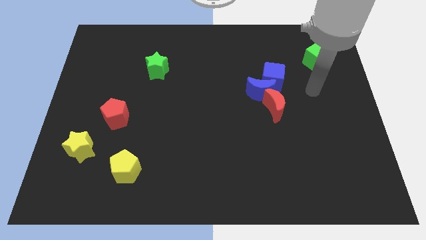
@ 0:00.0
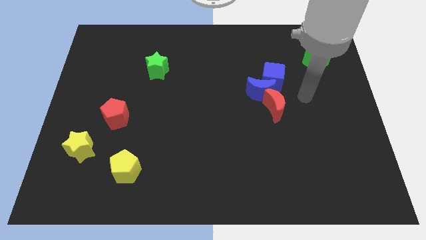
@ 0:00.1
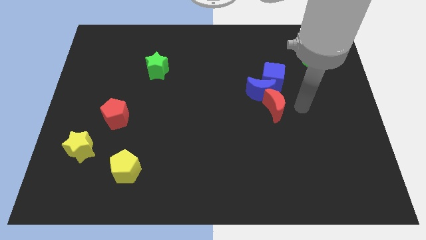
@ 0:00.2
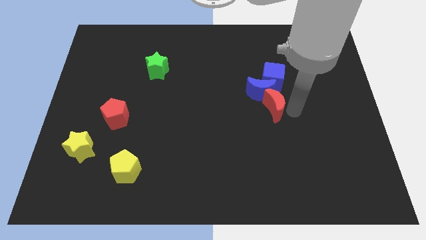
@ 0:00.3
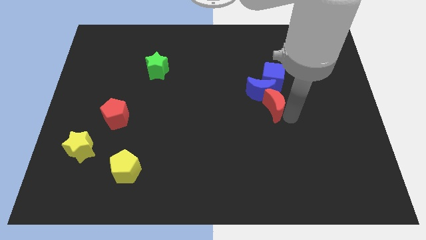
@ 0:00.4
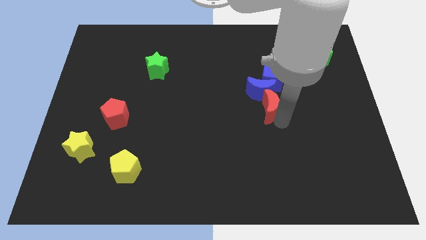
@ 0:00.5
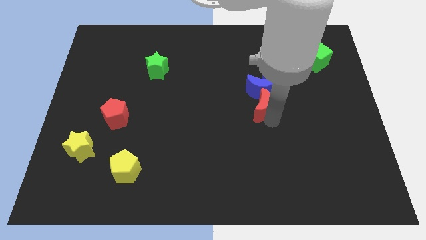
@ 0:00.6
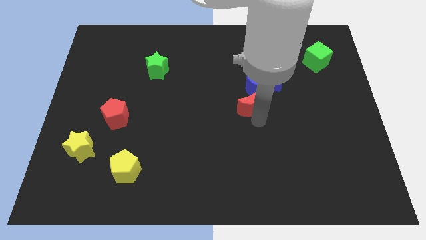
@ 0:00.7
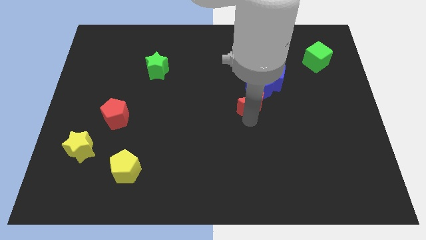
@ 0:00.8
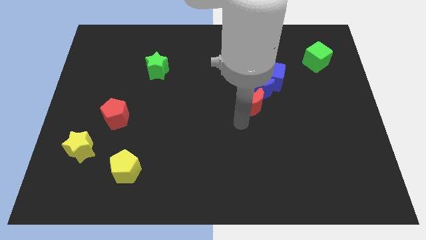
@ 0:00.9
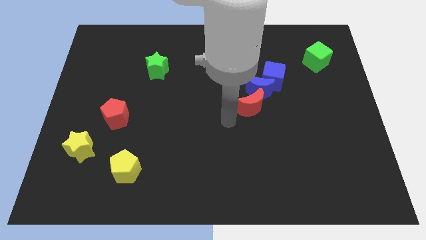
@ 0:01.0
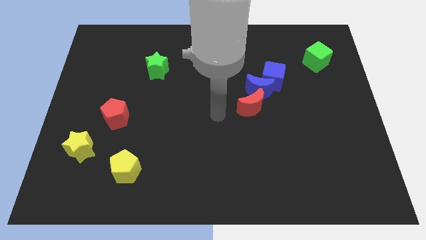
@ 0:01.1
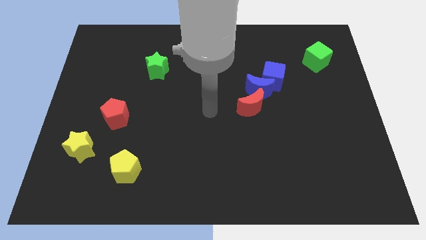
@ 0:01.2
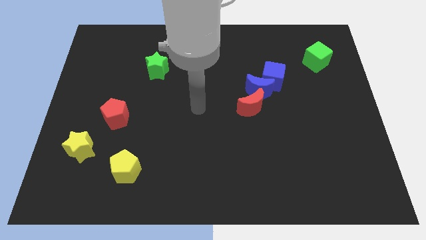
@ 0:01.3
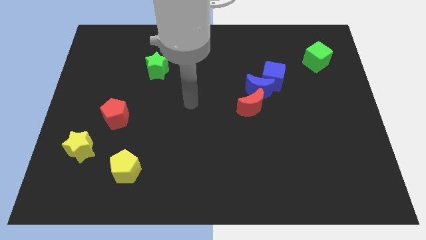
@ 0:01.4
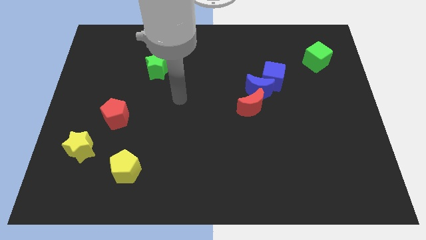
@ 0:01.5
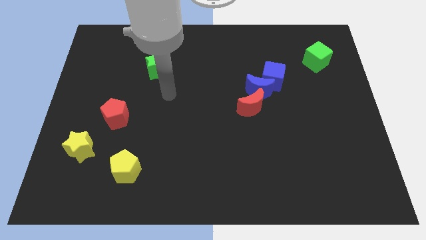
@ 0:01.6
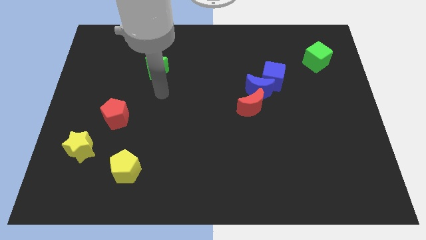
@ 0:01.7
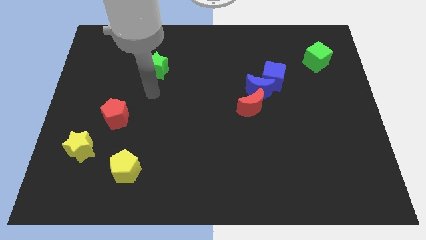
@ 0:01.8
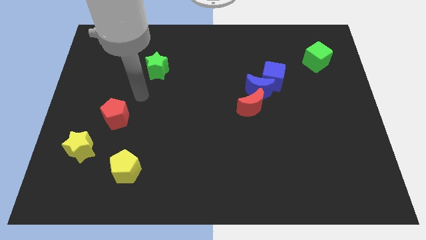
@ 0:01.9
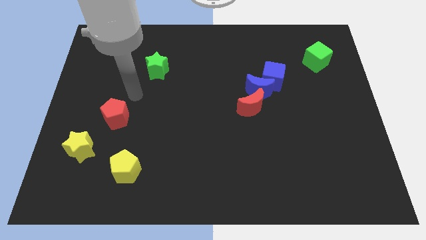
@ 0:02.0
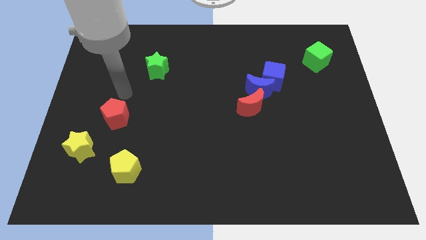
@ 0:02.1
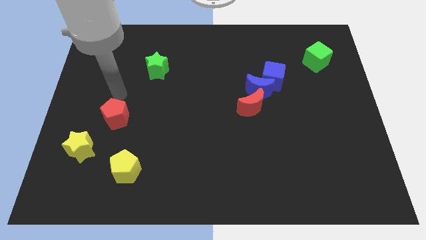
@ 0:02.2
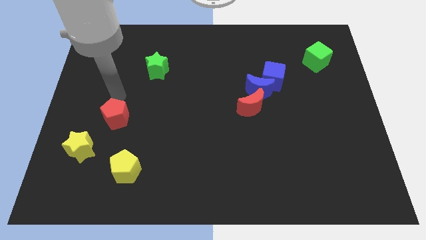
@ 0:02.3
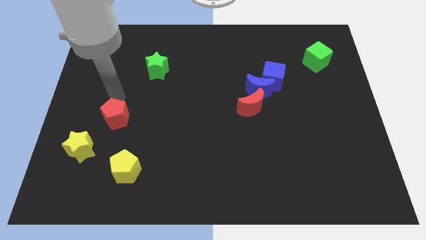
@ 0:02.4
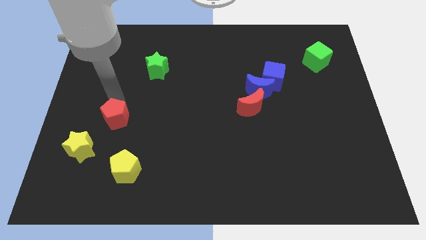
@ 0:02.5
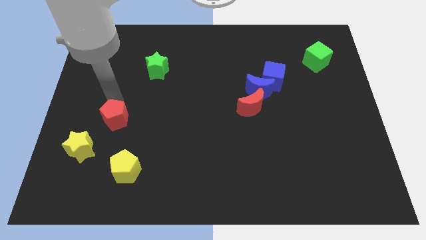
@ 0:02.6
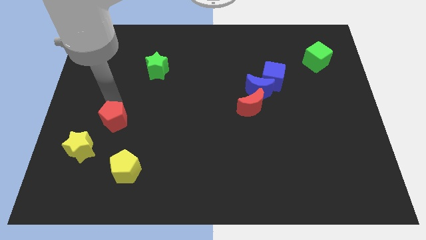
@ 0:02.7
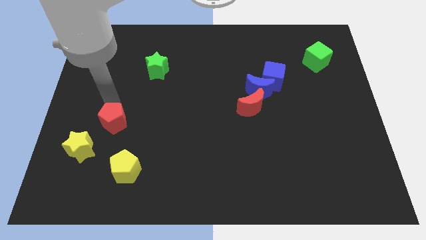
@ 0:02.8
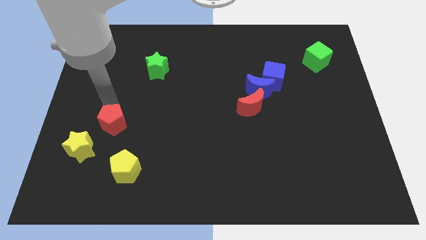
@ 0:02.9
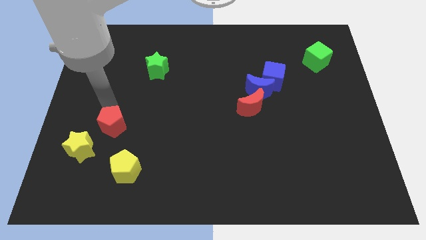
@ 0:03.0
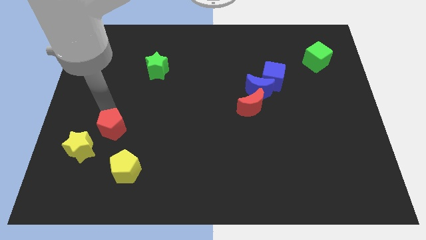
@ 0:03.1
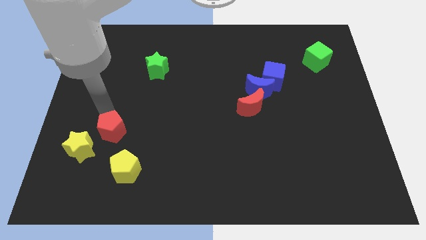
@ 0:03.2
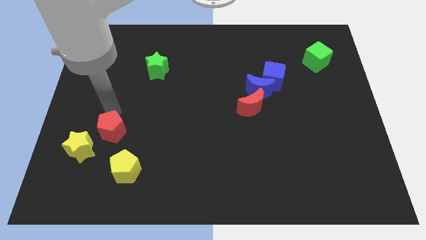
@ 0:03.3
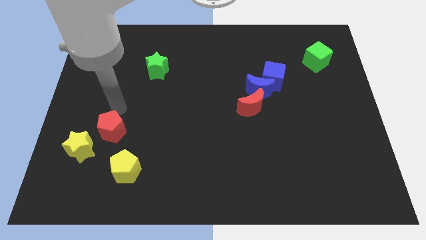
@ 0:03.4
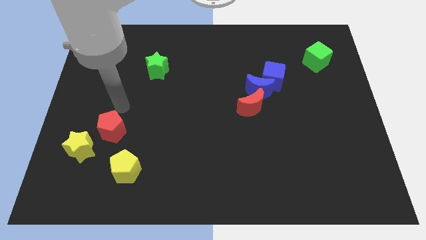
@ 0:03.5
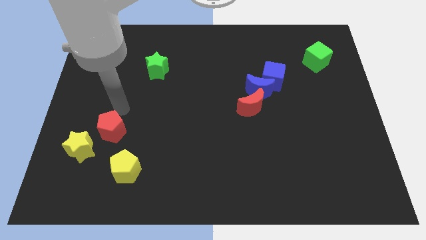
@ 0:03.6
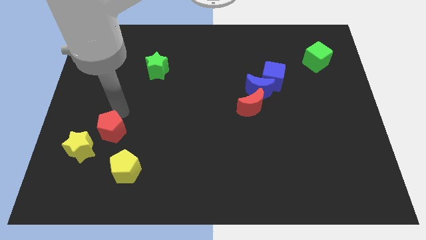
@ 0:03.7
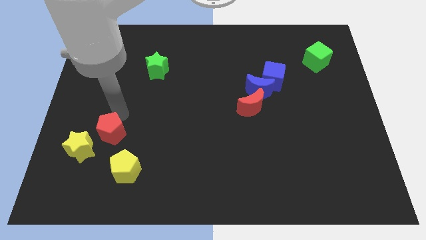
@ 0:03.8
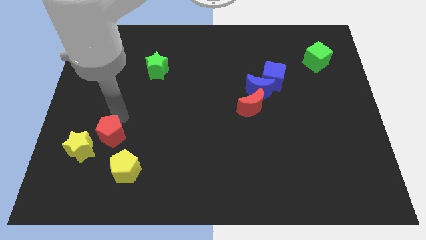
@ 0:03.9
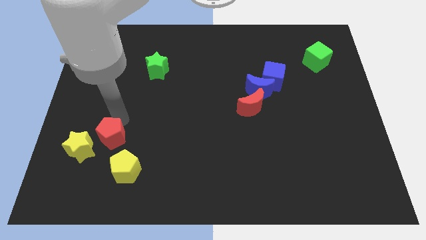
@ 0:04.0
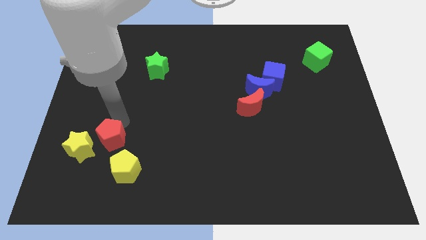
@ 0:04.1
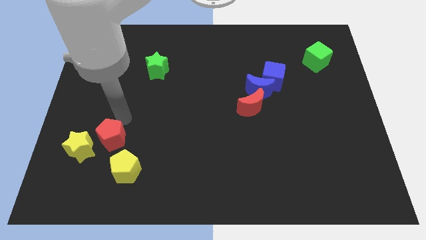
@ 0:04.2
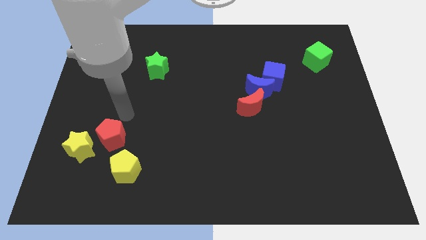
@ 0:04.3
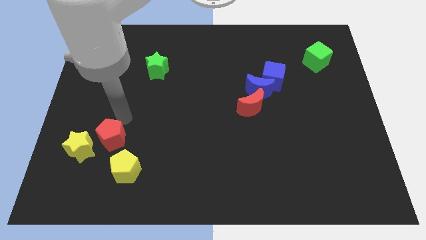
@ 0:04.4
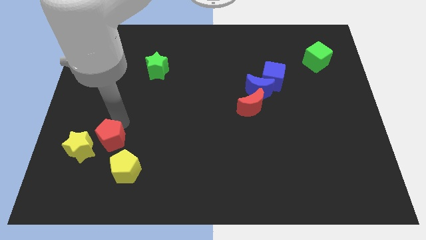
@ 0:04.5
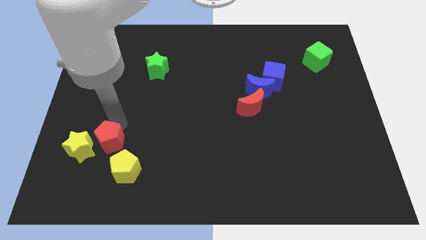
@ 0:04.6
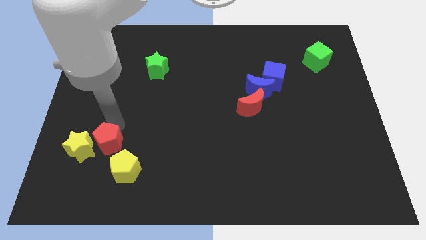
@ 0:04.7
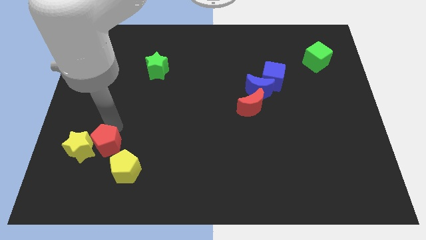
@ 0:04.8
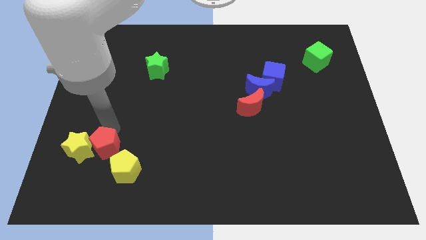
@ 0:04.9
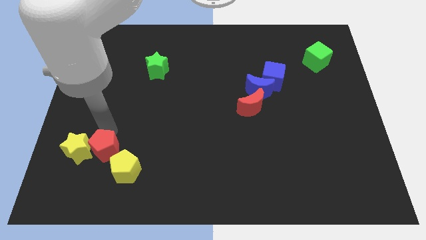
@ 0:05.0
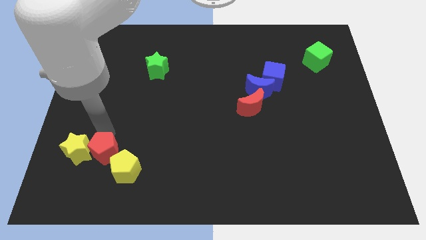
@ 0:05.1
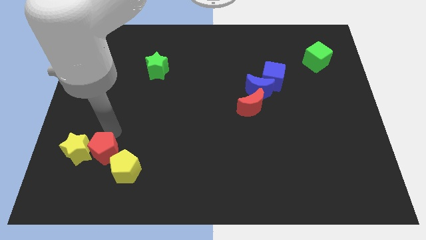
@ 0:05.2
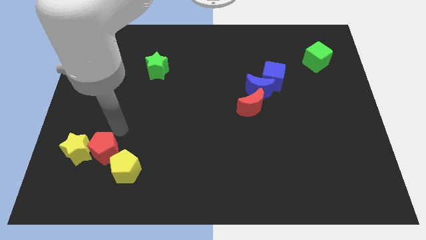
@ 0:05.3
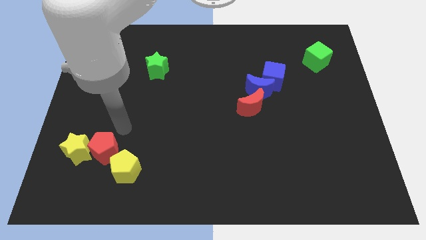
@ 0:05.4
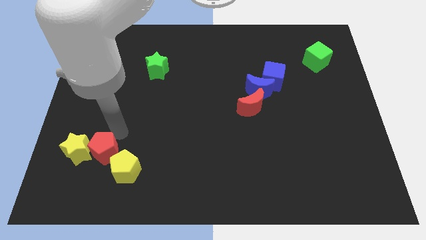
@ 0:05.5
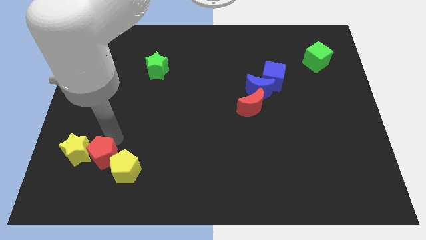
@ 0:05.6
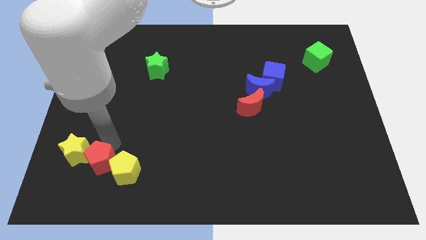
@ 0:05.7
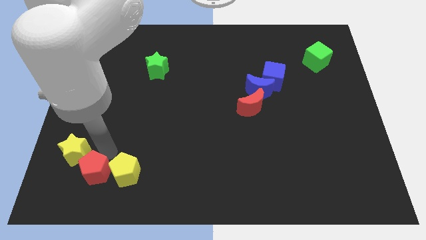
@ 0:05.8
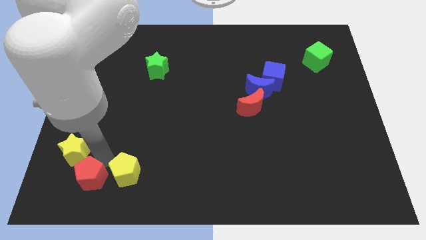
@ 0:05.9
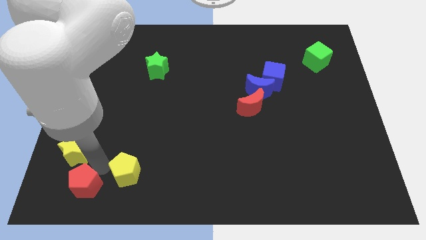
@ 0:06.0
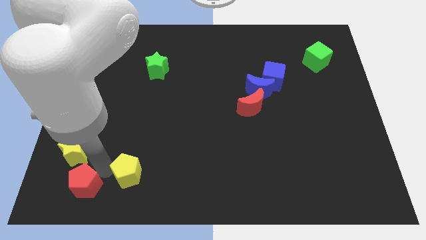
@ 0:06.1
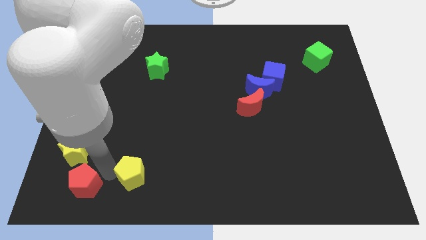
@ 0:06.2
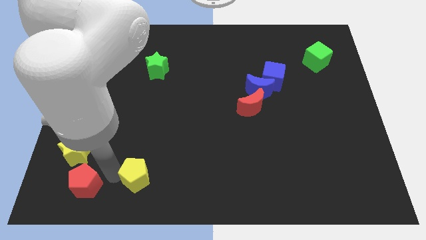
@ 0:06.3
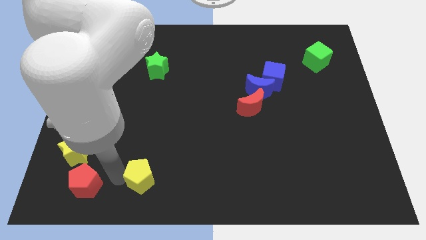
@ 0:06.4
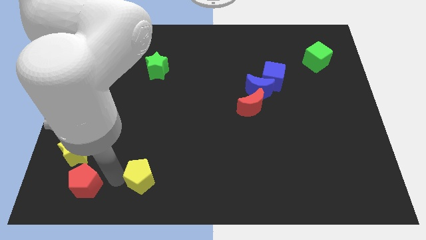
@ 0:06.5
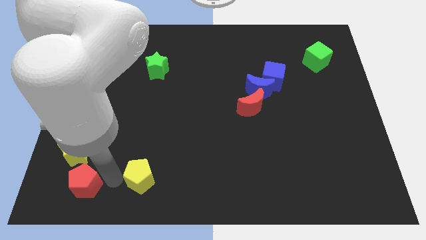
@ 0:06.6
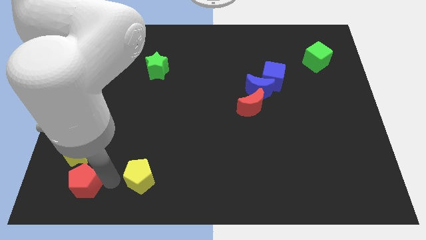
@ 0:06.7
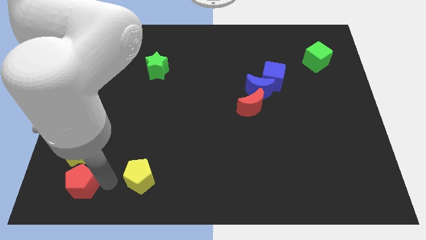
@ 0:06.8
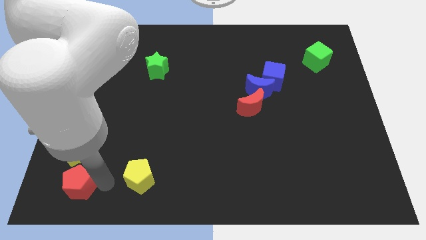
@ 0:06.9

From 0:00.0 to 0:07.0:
slide the red pentagon to the bottom left
